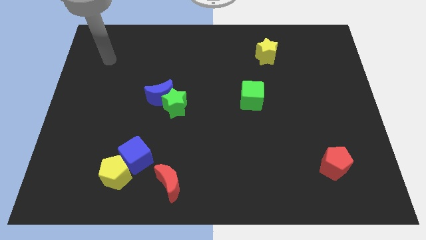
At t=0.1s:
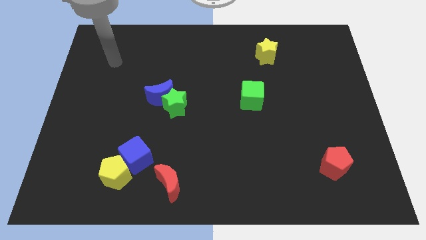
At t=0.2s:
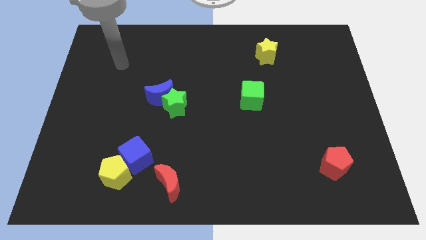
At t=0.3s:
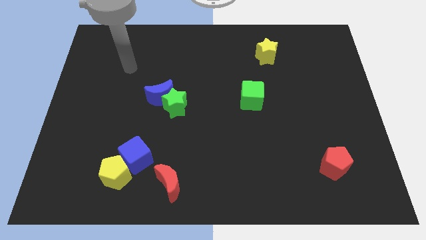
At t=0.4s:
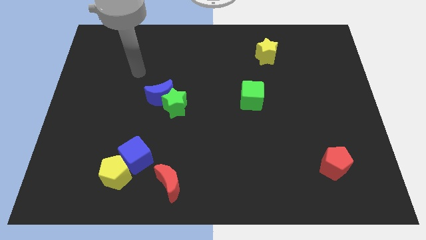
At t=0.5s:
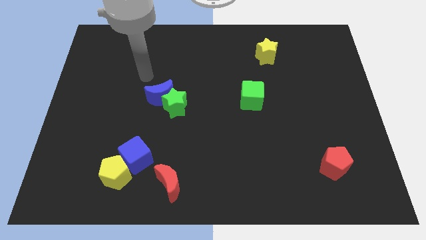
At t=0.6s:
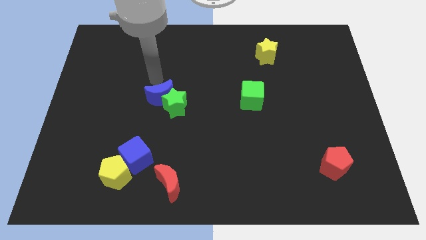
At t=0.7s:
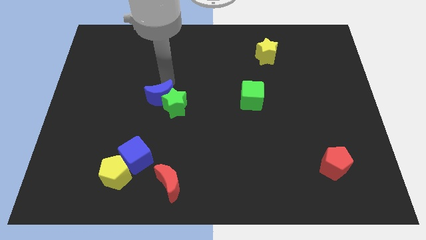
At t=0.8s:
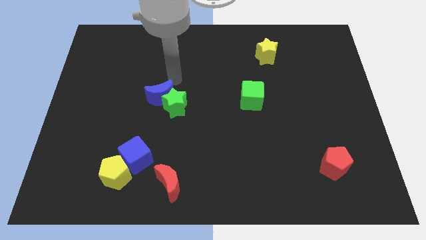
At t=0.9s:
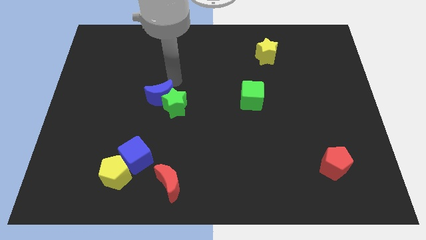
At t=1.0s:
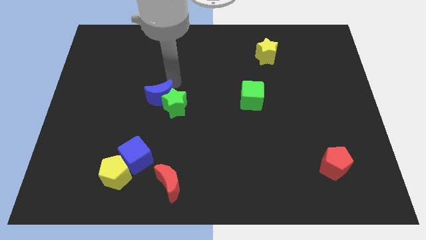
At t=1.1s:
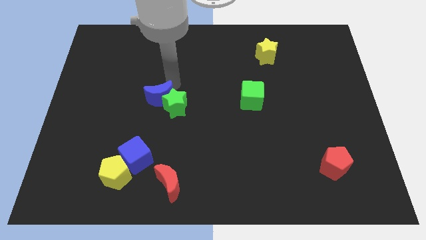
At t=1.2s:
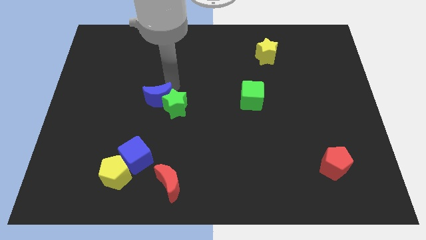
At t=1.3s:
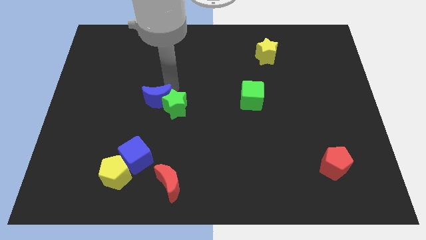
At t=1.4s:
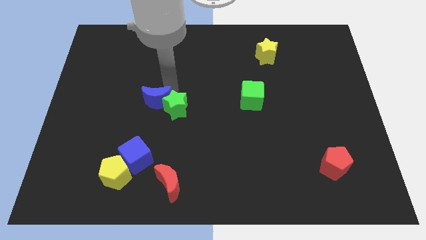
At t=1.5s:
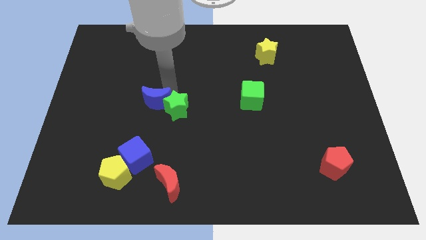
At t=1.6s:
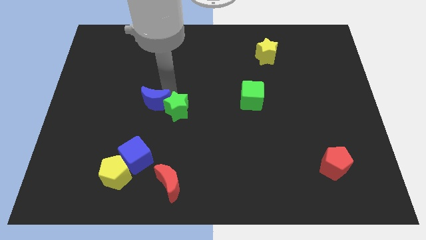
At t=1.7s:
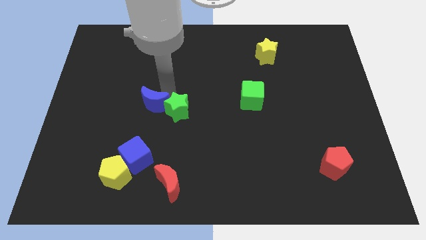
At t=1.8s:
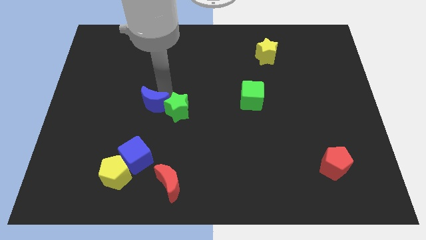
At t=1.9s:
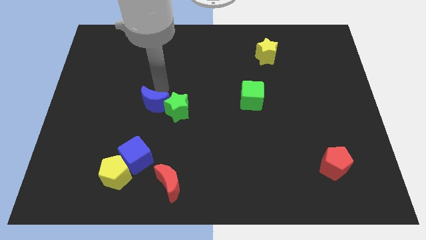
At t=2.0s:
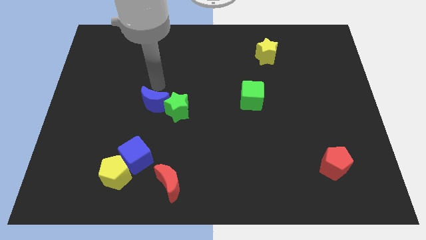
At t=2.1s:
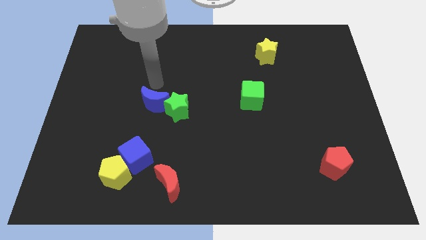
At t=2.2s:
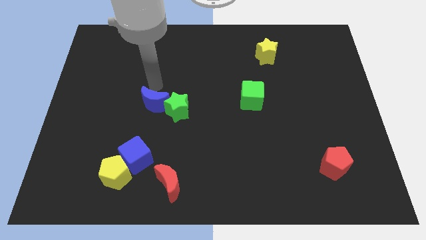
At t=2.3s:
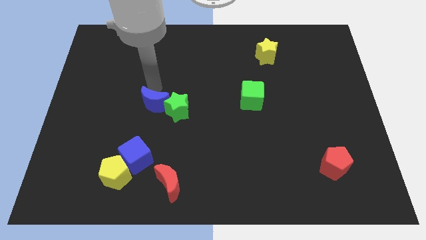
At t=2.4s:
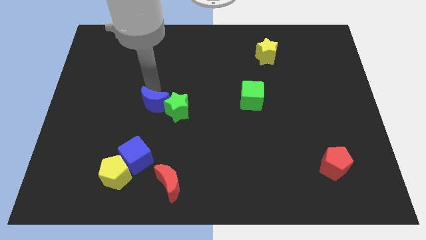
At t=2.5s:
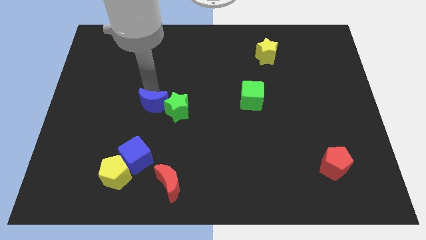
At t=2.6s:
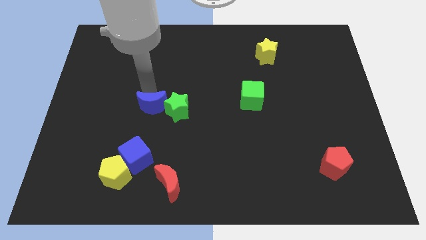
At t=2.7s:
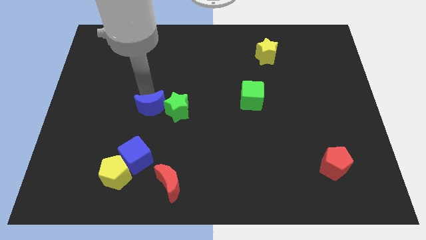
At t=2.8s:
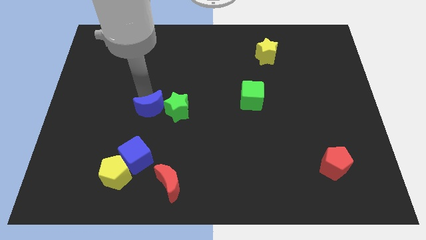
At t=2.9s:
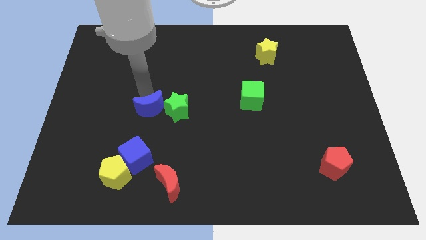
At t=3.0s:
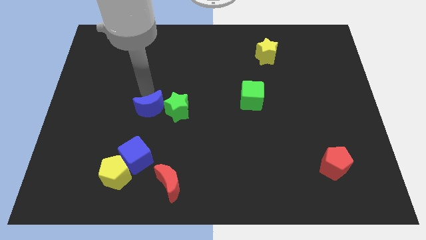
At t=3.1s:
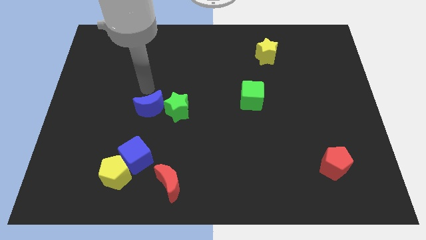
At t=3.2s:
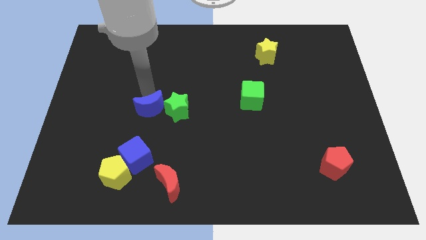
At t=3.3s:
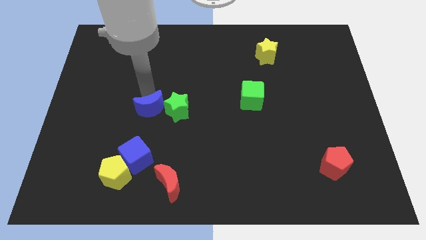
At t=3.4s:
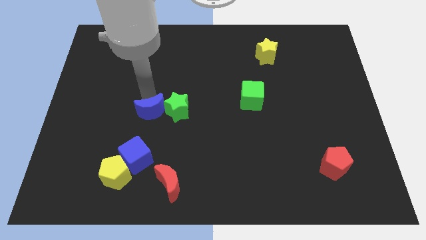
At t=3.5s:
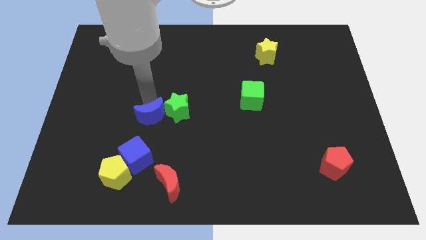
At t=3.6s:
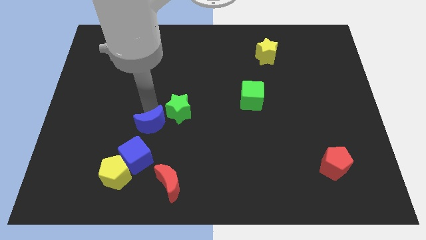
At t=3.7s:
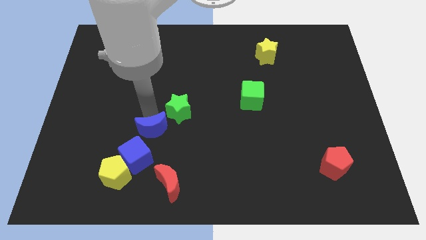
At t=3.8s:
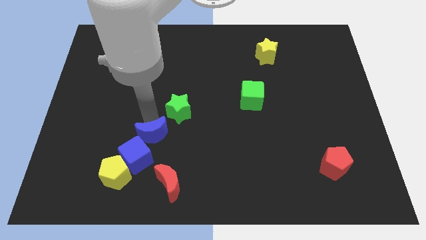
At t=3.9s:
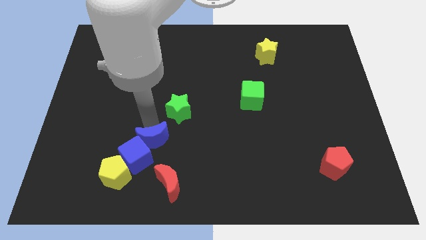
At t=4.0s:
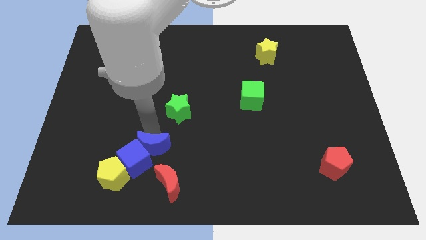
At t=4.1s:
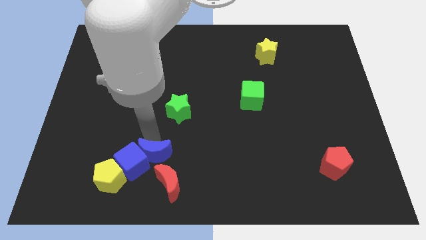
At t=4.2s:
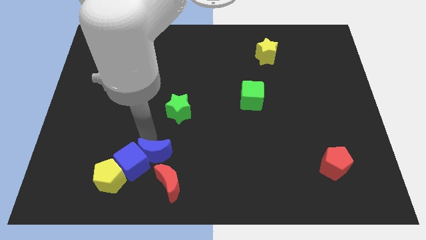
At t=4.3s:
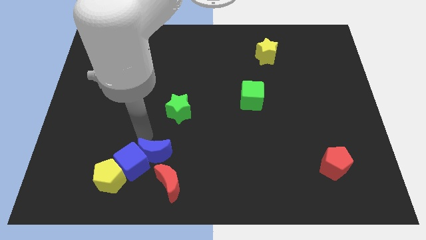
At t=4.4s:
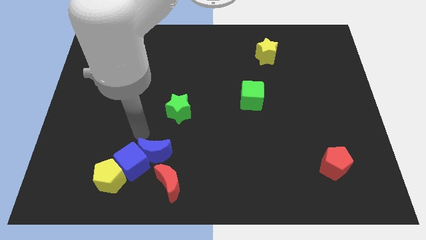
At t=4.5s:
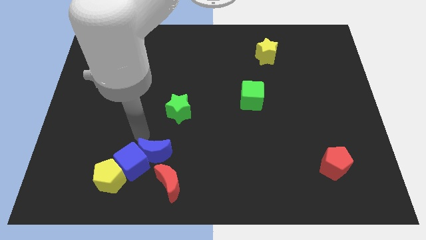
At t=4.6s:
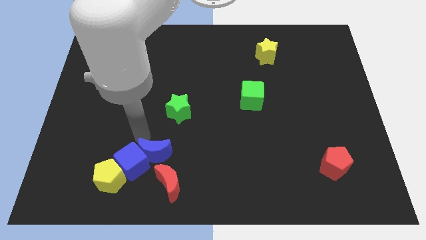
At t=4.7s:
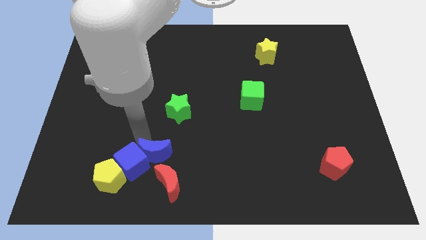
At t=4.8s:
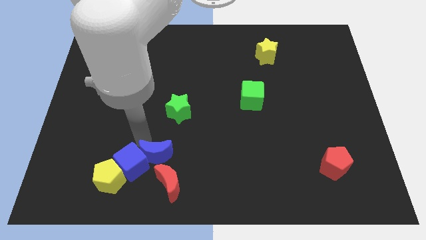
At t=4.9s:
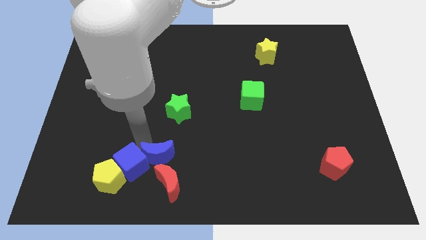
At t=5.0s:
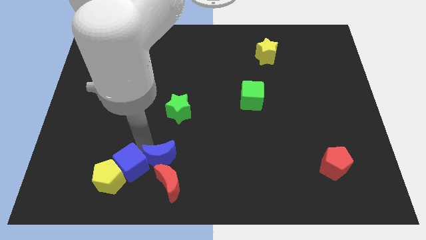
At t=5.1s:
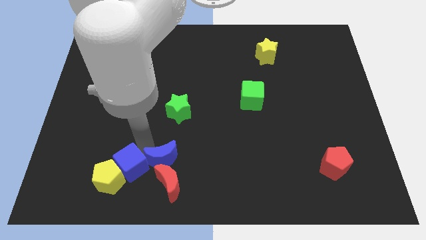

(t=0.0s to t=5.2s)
slide the blue moon close to the red moon

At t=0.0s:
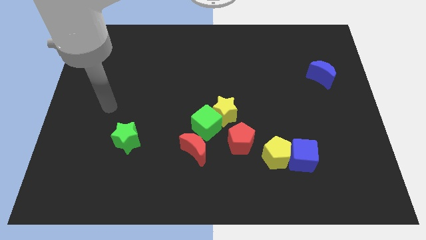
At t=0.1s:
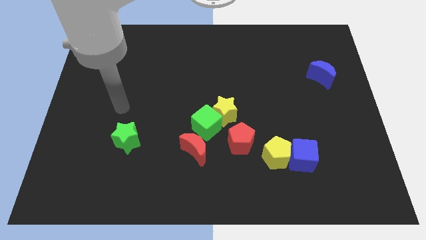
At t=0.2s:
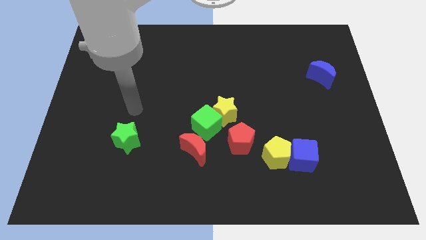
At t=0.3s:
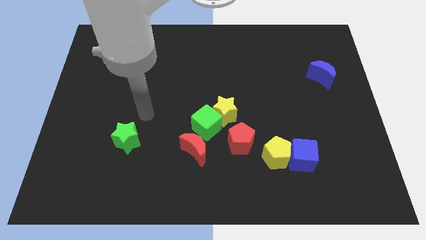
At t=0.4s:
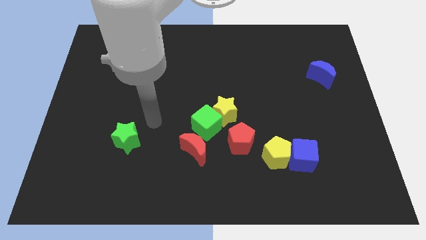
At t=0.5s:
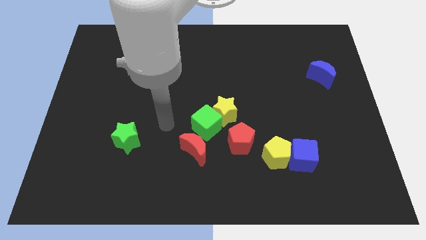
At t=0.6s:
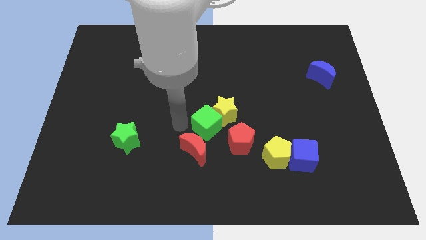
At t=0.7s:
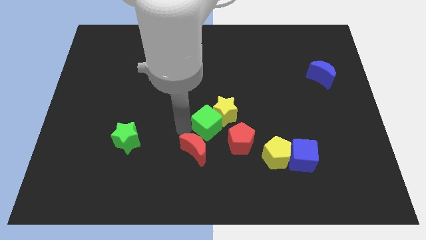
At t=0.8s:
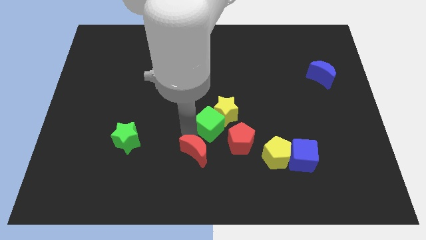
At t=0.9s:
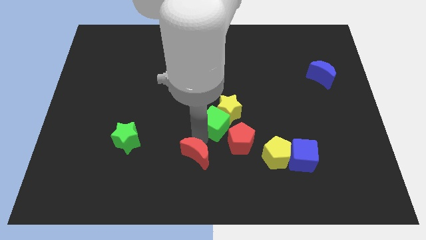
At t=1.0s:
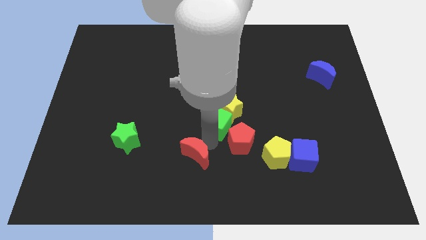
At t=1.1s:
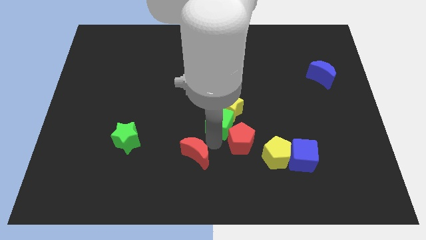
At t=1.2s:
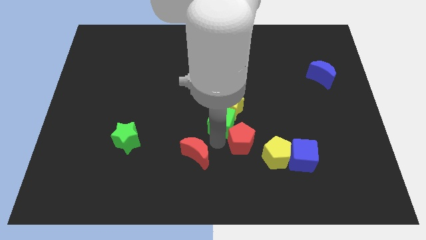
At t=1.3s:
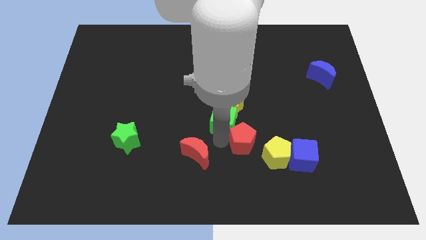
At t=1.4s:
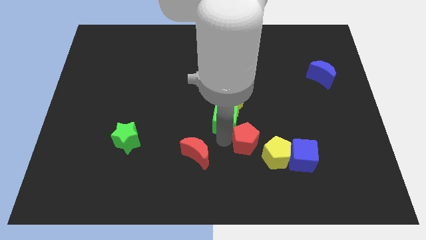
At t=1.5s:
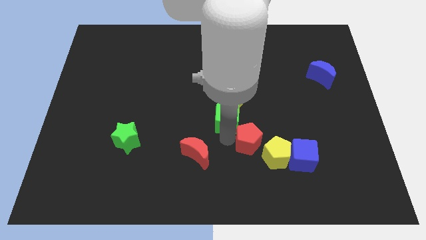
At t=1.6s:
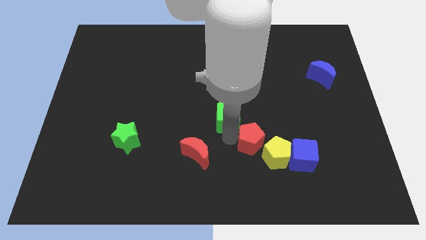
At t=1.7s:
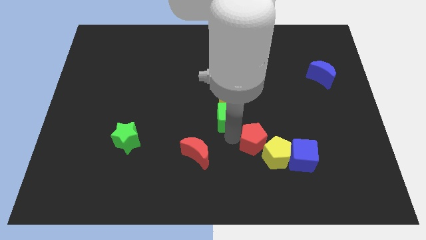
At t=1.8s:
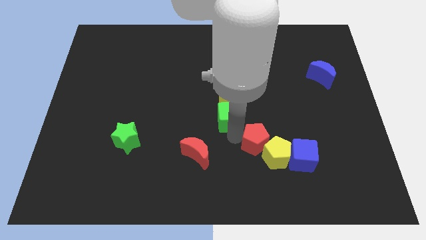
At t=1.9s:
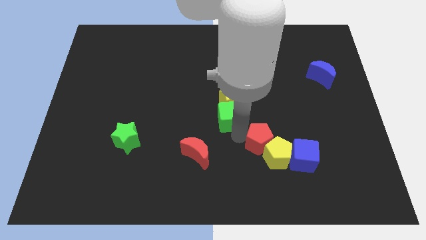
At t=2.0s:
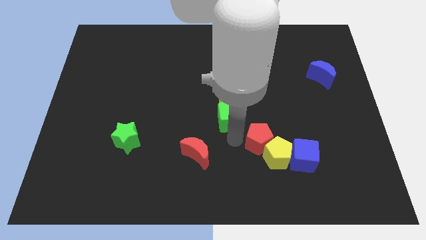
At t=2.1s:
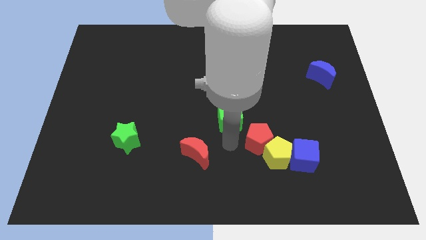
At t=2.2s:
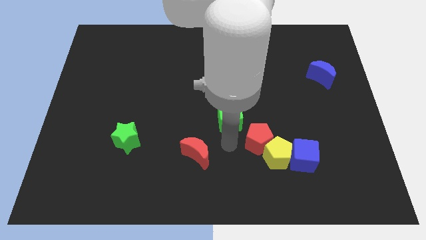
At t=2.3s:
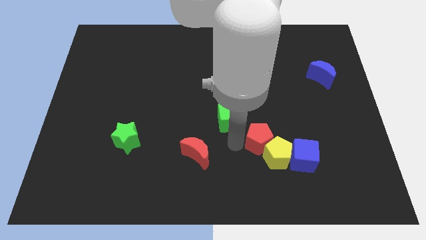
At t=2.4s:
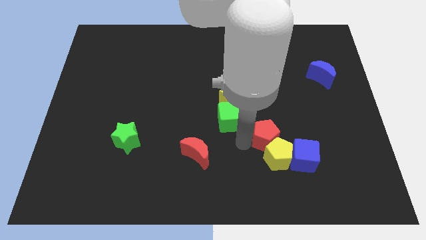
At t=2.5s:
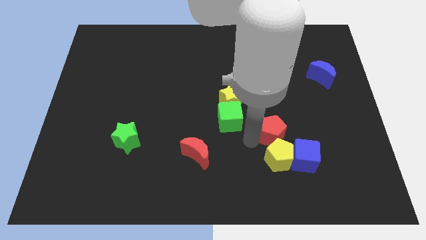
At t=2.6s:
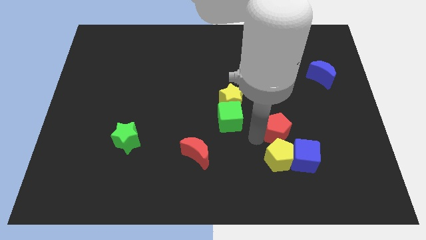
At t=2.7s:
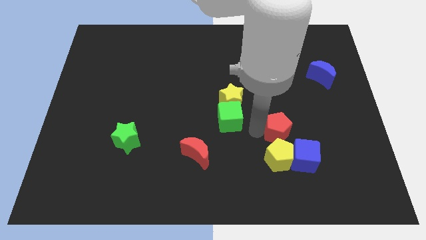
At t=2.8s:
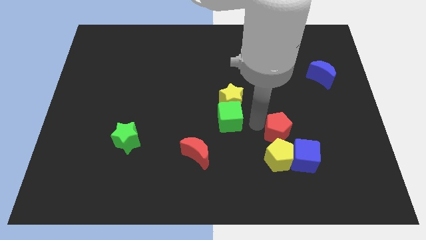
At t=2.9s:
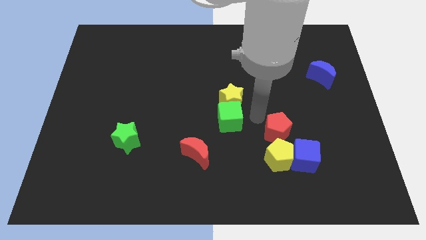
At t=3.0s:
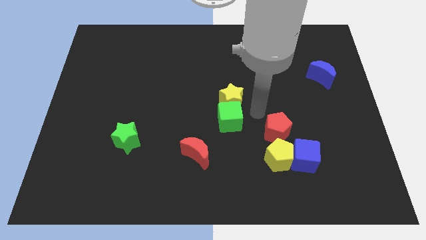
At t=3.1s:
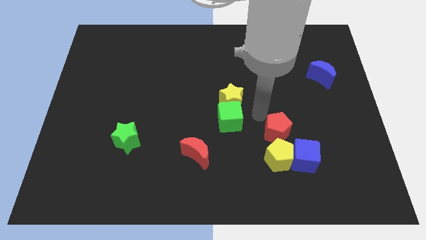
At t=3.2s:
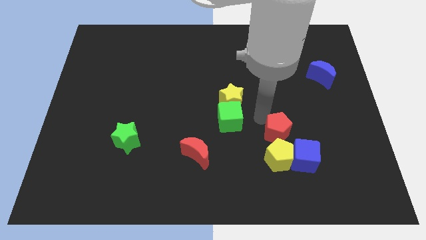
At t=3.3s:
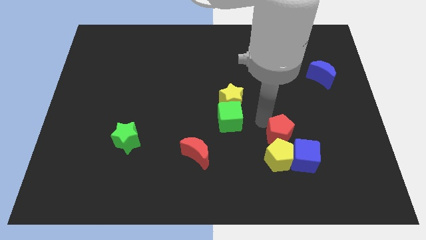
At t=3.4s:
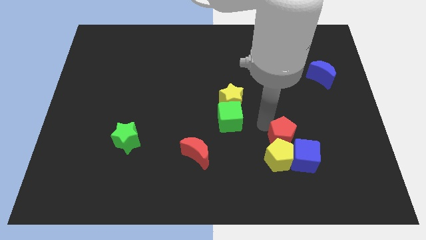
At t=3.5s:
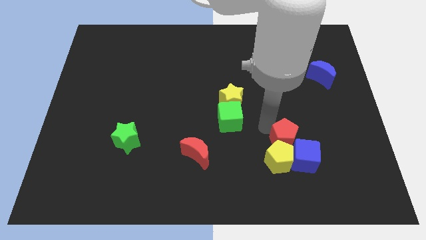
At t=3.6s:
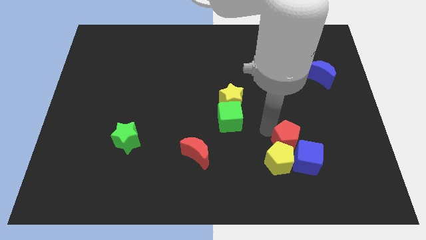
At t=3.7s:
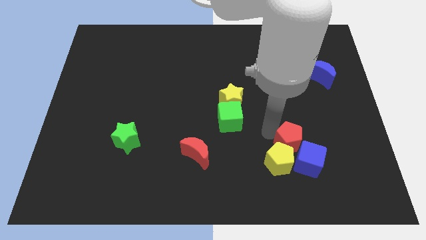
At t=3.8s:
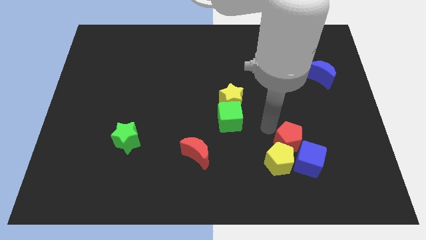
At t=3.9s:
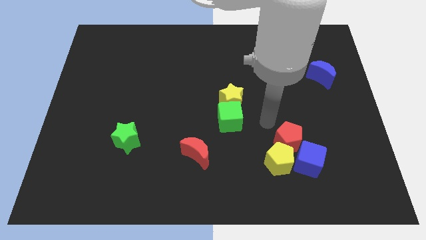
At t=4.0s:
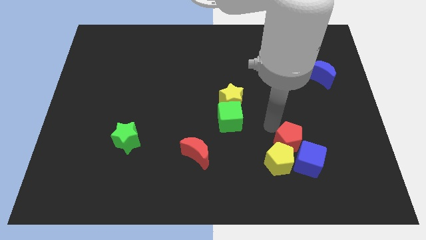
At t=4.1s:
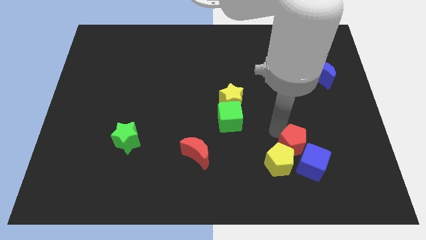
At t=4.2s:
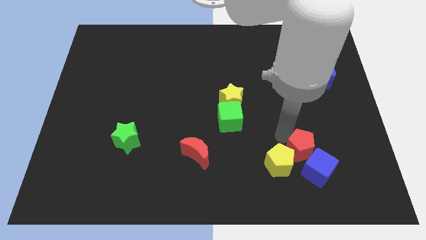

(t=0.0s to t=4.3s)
put the red pentagon close to the blue cube
